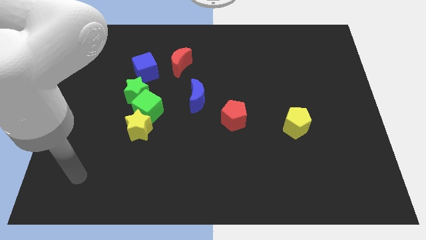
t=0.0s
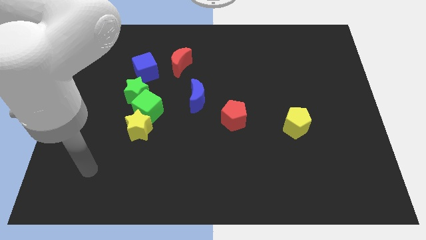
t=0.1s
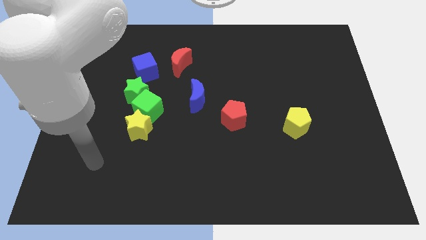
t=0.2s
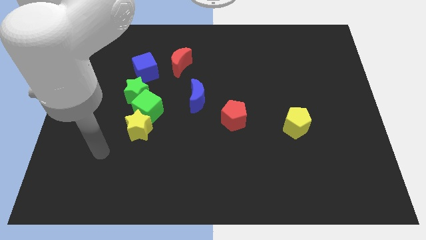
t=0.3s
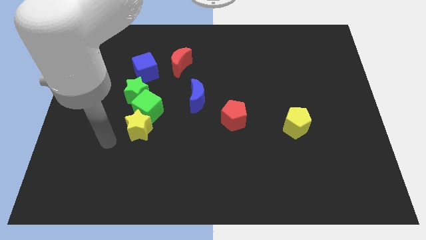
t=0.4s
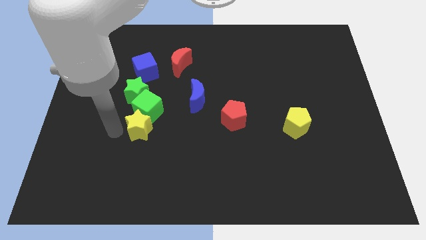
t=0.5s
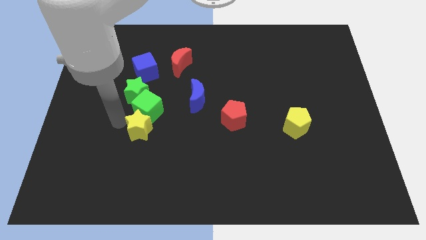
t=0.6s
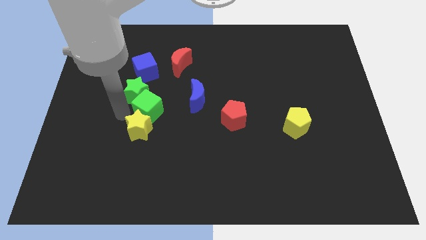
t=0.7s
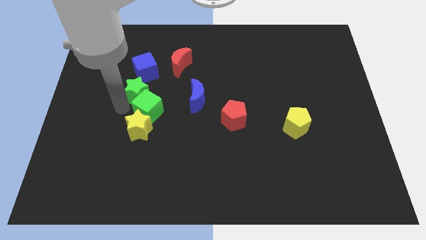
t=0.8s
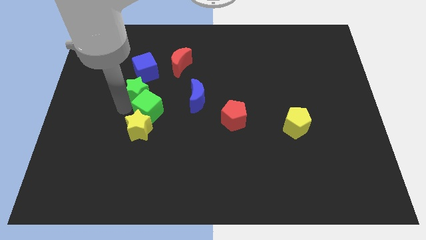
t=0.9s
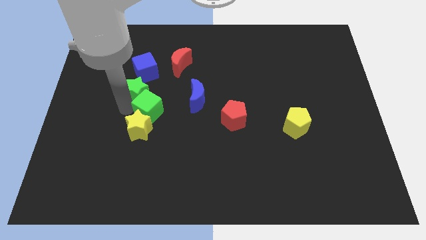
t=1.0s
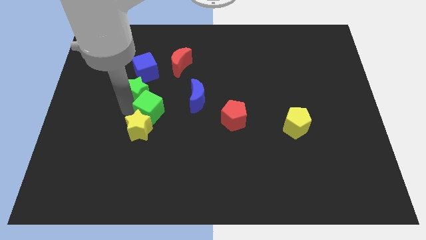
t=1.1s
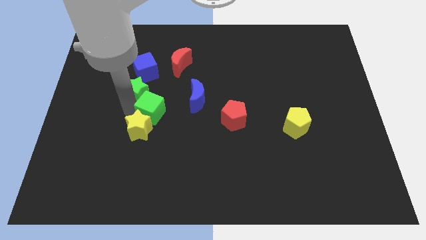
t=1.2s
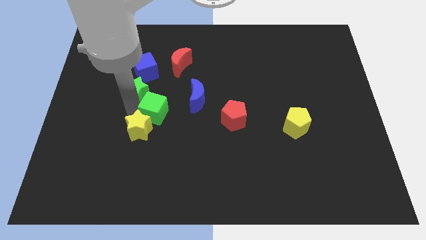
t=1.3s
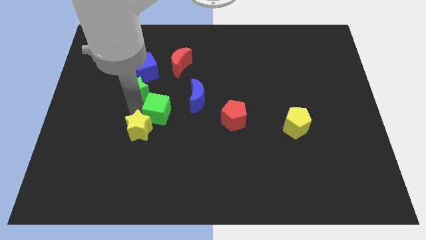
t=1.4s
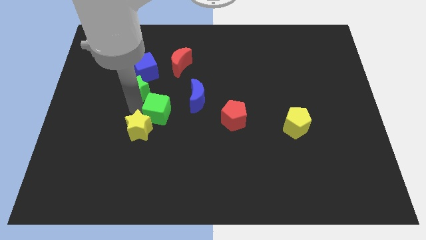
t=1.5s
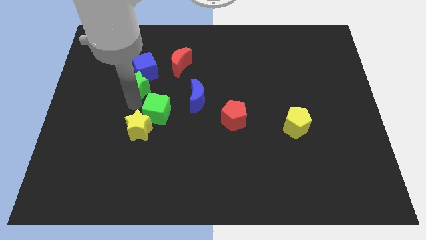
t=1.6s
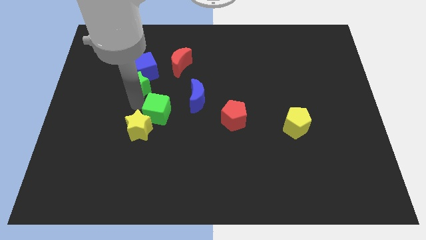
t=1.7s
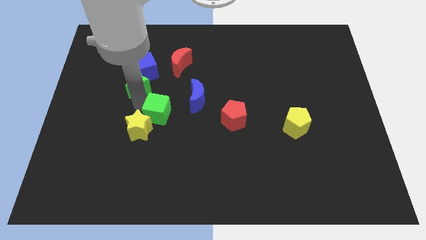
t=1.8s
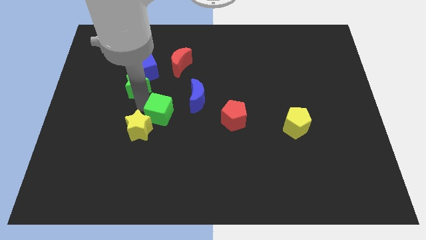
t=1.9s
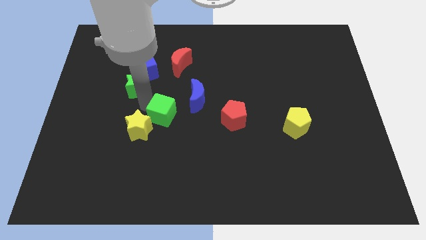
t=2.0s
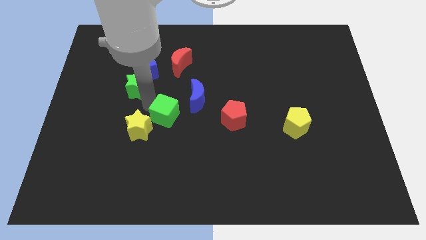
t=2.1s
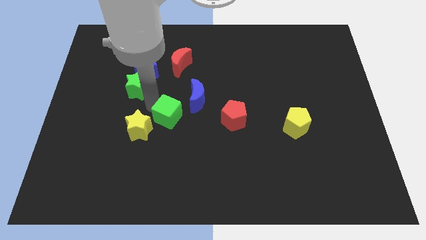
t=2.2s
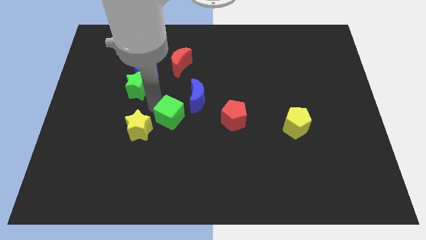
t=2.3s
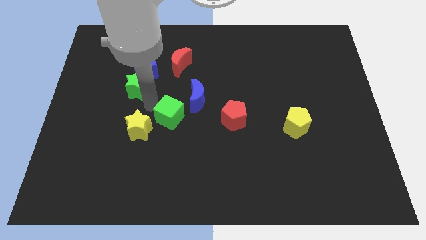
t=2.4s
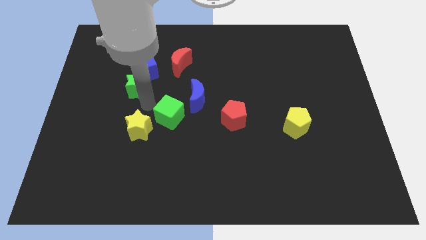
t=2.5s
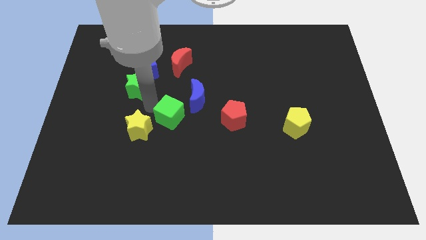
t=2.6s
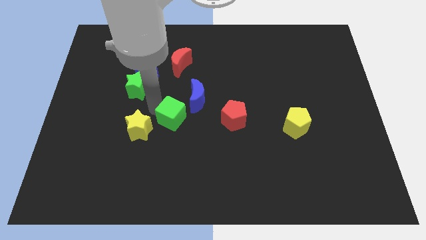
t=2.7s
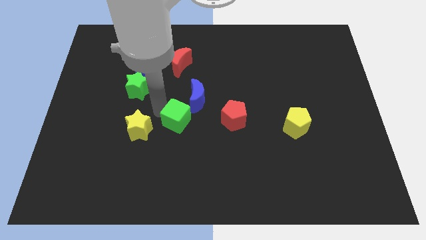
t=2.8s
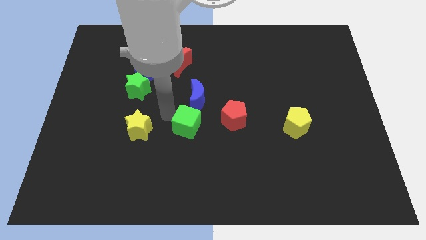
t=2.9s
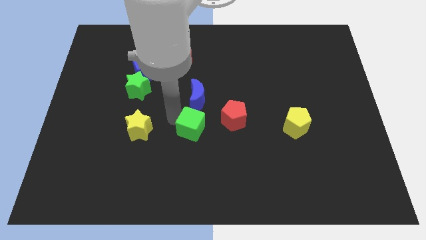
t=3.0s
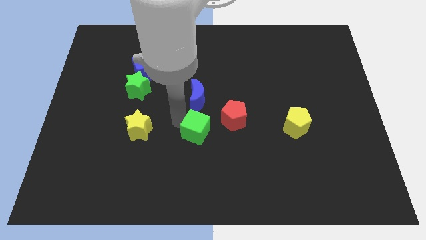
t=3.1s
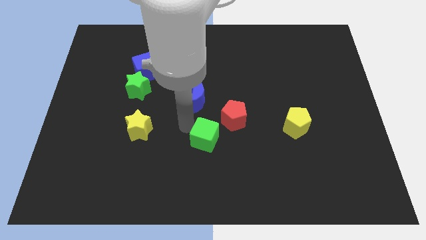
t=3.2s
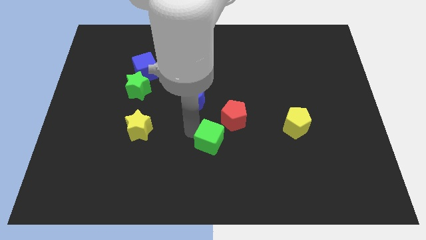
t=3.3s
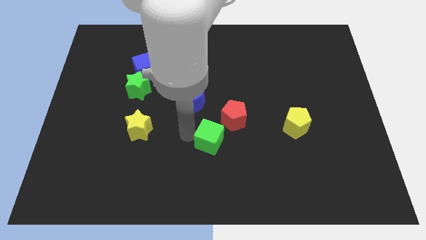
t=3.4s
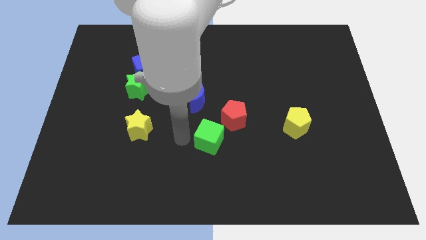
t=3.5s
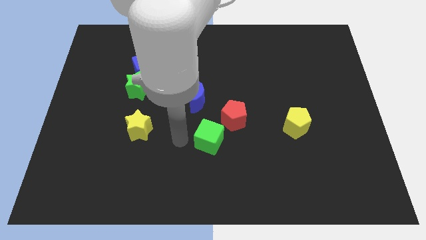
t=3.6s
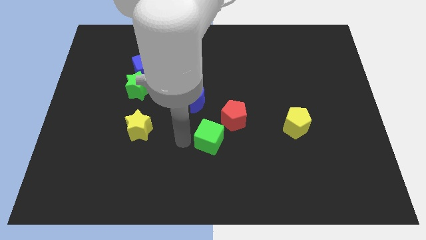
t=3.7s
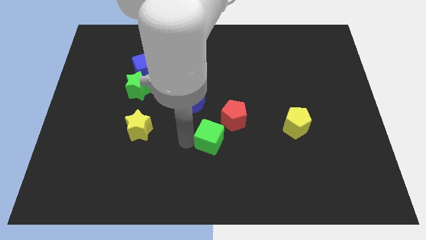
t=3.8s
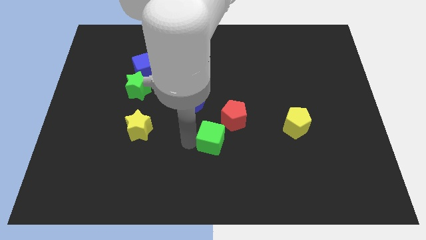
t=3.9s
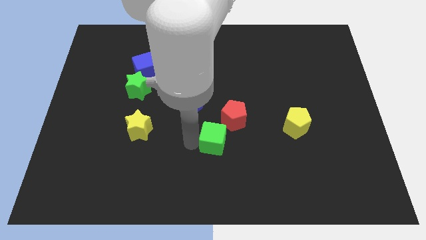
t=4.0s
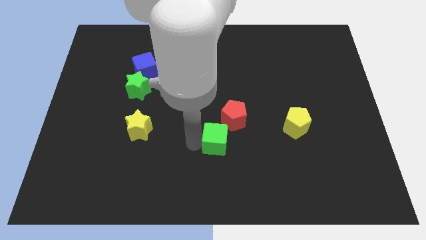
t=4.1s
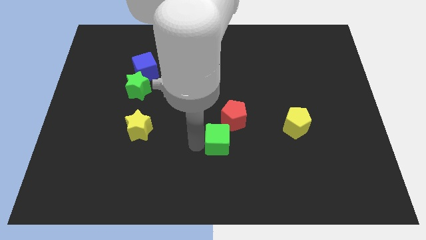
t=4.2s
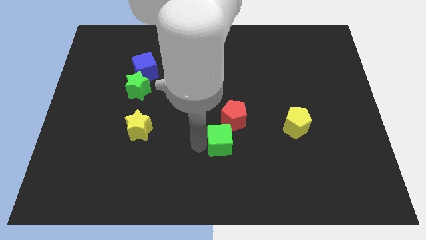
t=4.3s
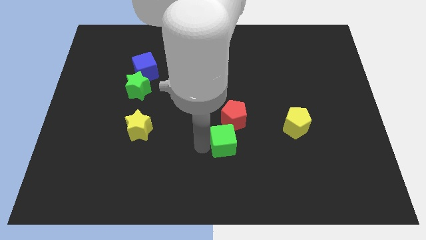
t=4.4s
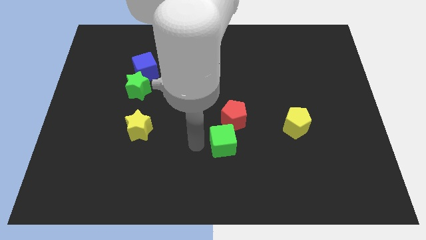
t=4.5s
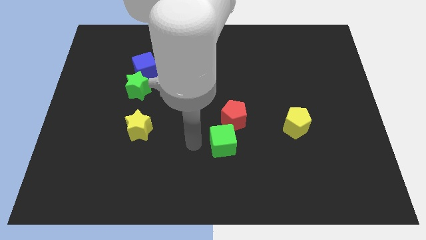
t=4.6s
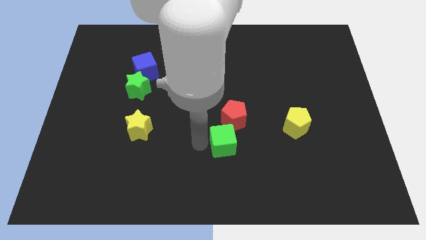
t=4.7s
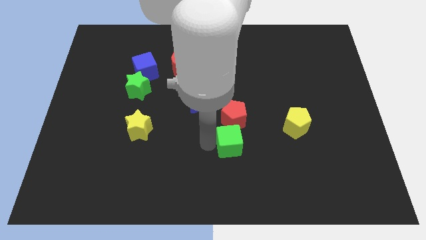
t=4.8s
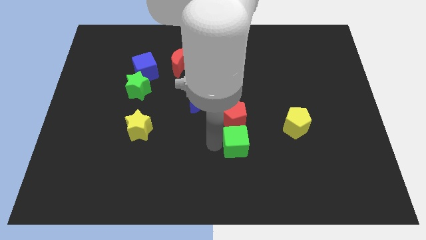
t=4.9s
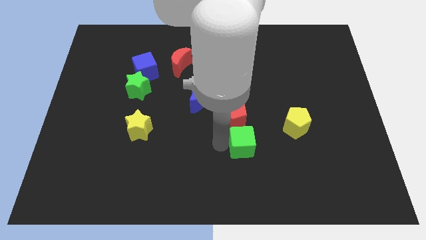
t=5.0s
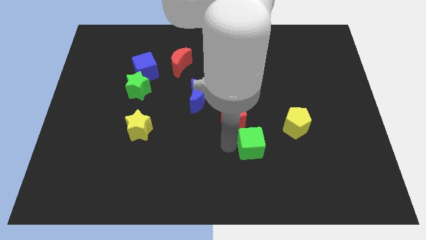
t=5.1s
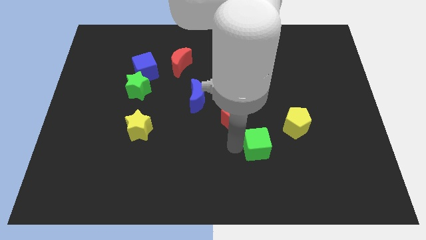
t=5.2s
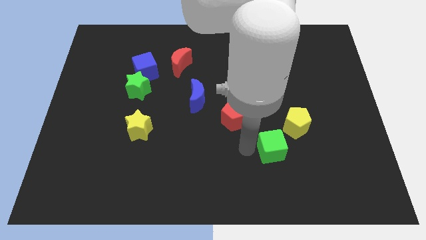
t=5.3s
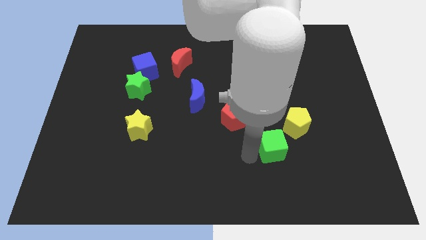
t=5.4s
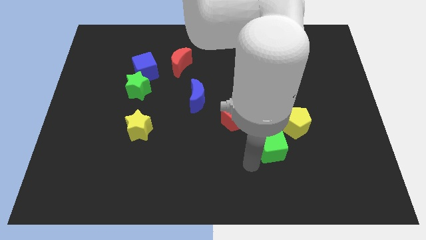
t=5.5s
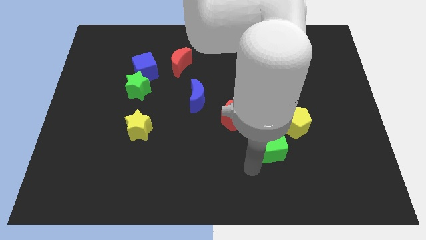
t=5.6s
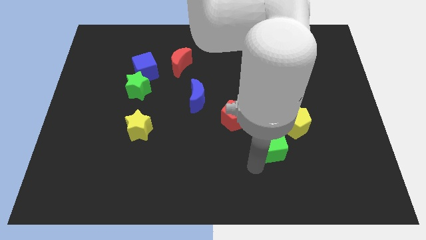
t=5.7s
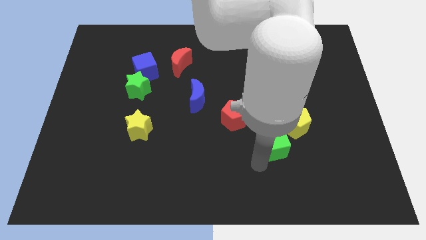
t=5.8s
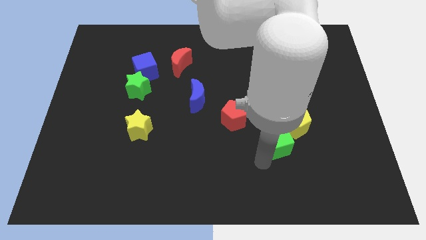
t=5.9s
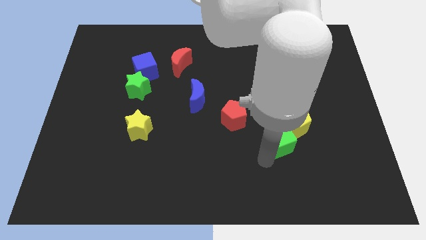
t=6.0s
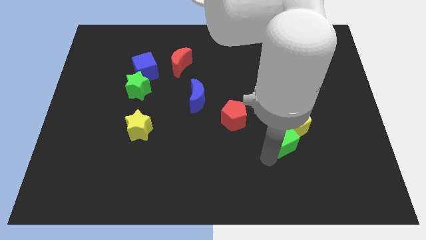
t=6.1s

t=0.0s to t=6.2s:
push the green cube close to the yellow pentagon

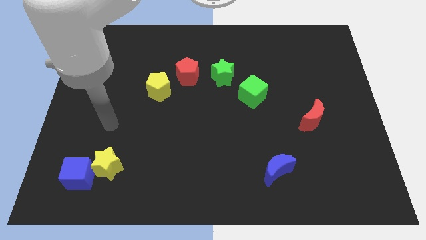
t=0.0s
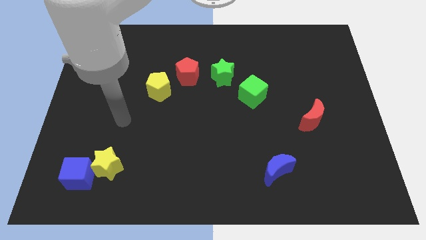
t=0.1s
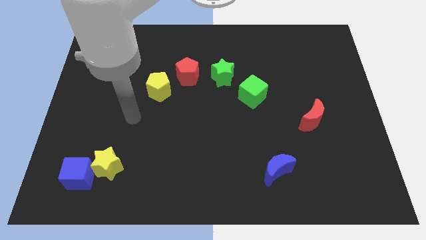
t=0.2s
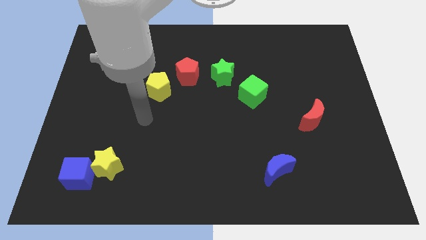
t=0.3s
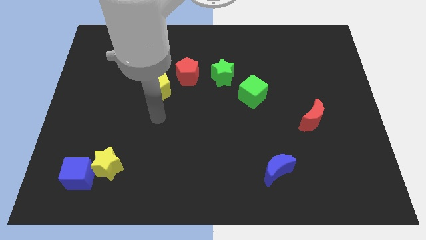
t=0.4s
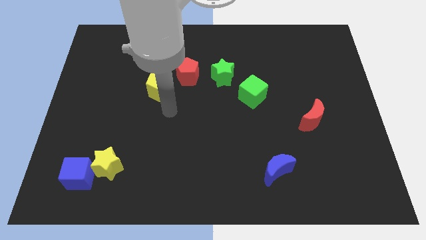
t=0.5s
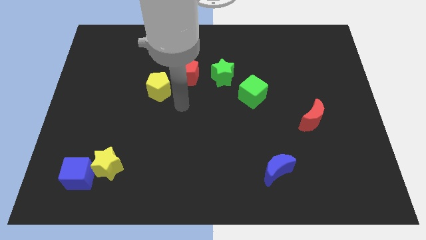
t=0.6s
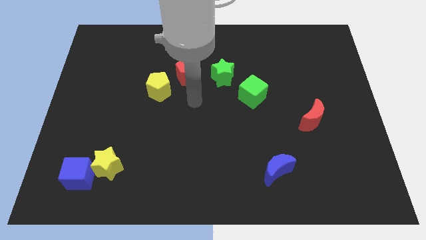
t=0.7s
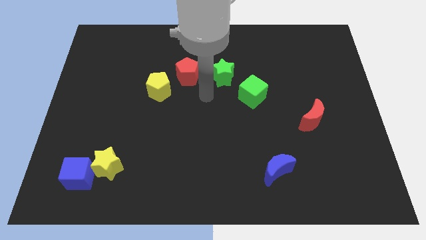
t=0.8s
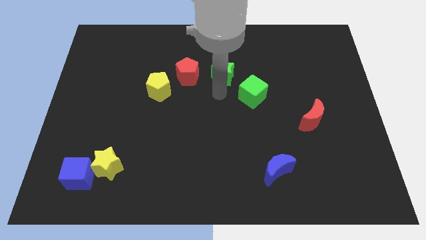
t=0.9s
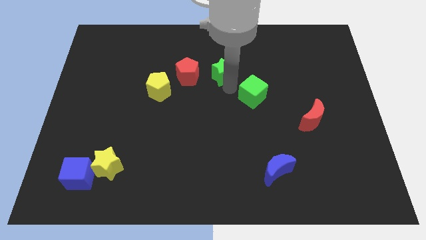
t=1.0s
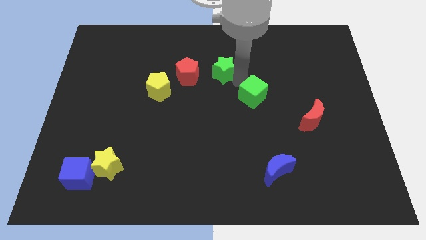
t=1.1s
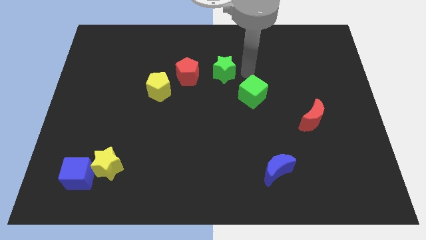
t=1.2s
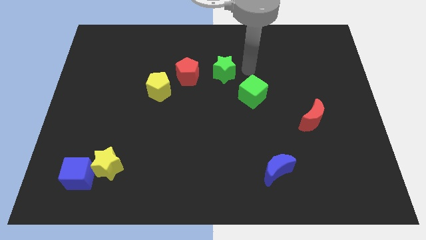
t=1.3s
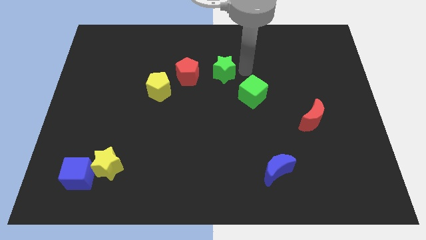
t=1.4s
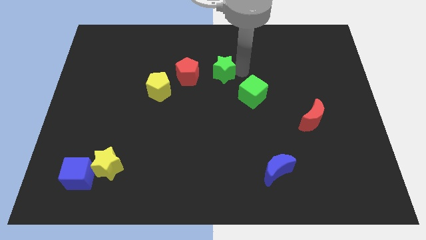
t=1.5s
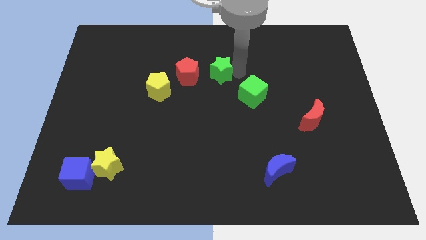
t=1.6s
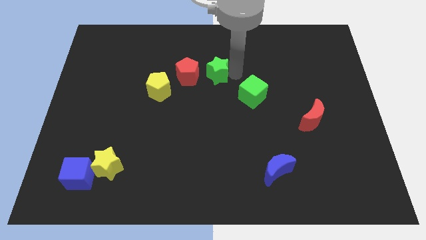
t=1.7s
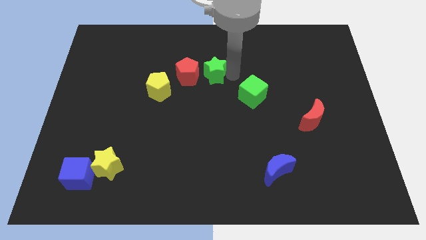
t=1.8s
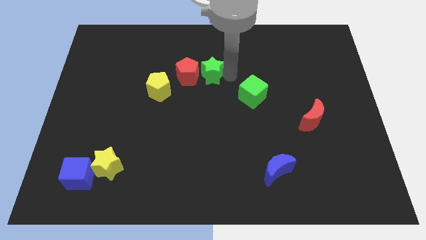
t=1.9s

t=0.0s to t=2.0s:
put the green star next to the red pentagon

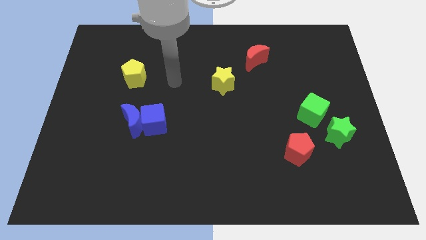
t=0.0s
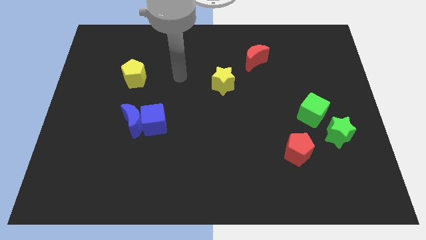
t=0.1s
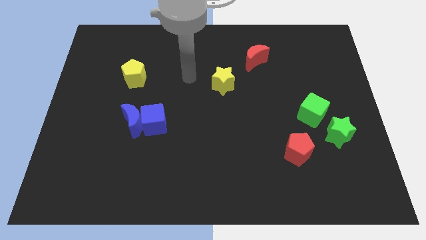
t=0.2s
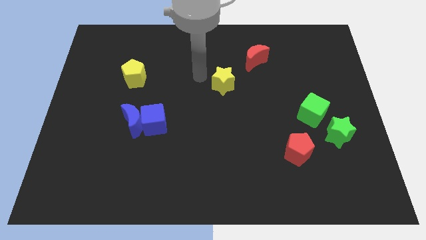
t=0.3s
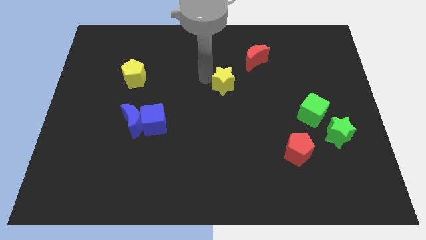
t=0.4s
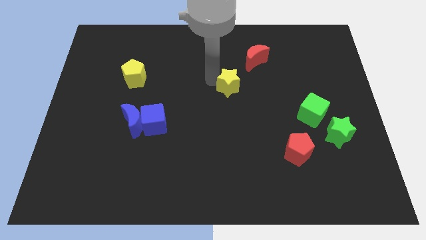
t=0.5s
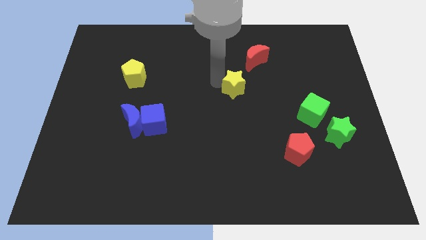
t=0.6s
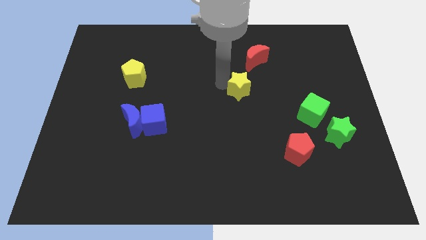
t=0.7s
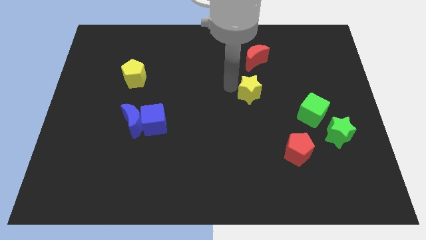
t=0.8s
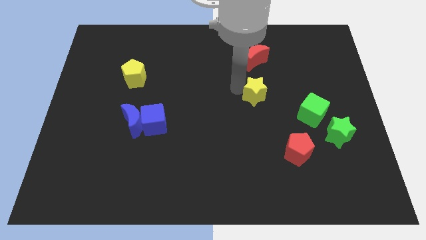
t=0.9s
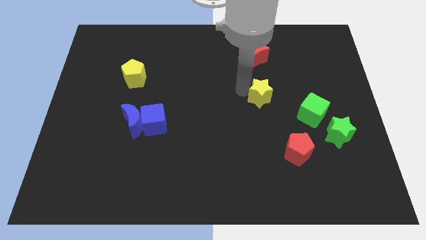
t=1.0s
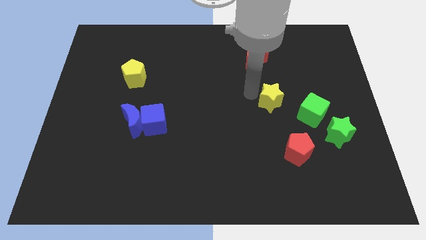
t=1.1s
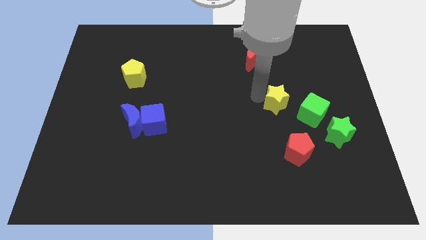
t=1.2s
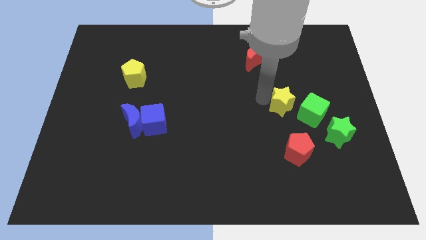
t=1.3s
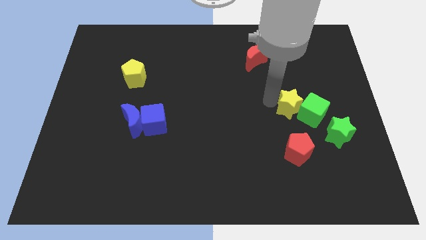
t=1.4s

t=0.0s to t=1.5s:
move the yellow star to the green cube
